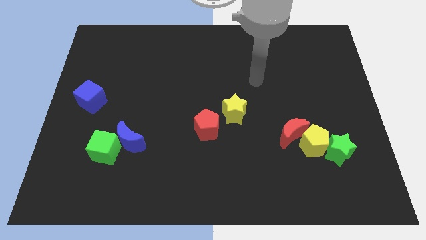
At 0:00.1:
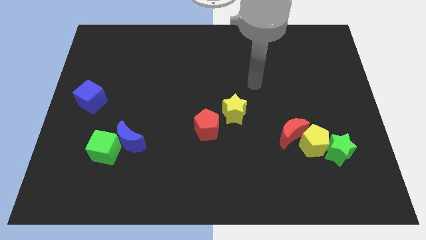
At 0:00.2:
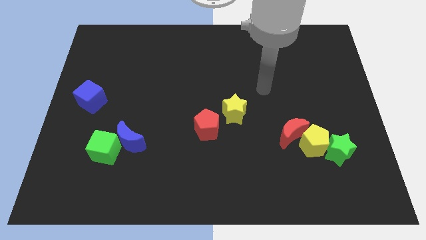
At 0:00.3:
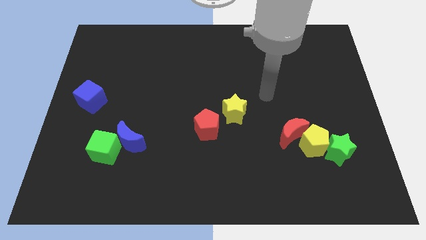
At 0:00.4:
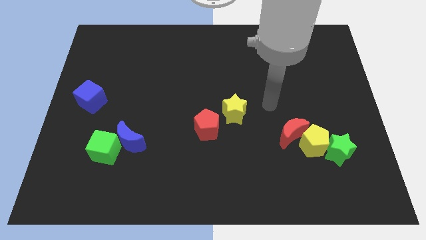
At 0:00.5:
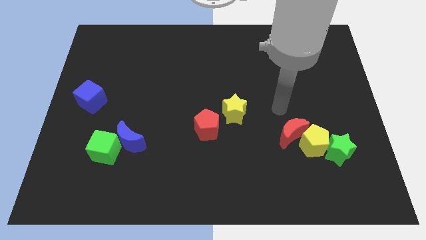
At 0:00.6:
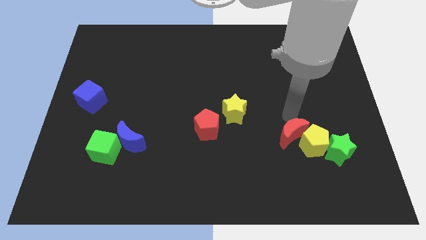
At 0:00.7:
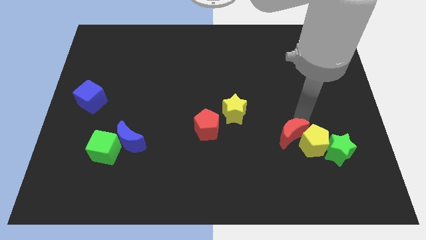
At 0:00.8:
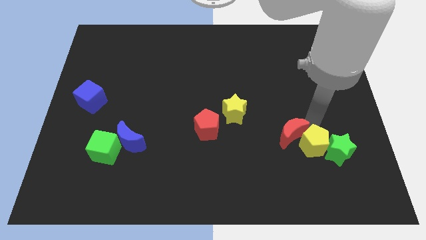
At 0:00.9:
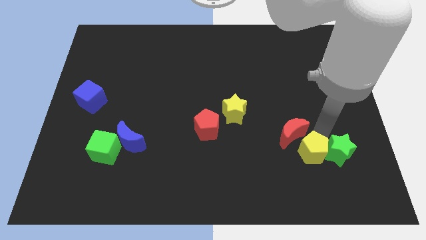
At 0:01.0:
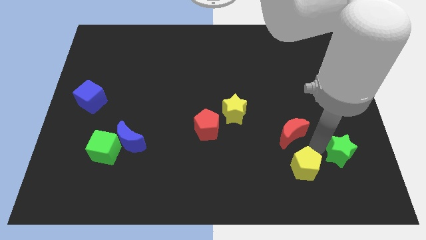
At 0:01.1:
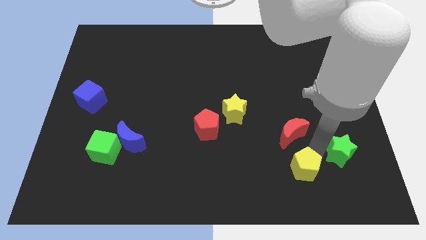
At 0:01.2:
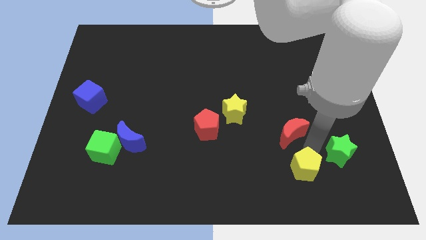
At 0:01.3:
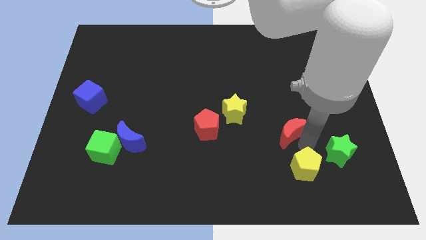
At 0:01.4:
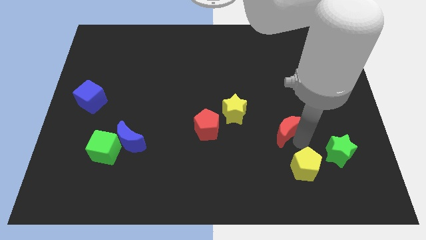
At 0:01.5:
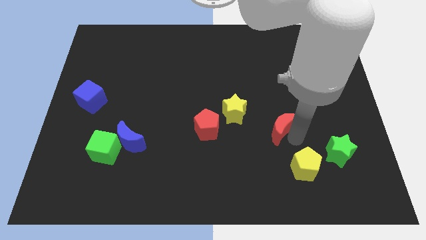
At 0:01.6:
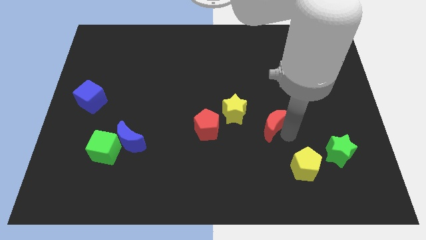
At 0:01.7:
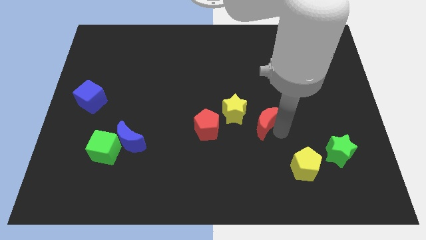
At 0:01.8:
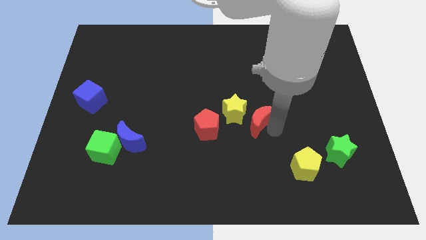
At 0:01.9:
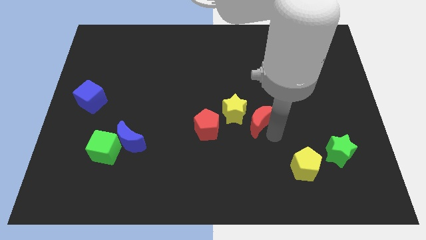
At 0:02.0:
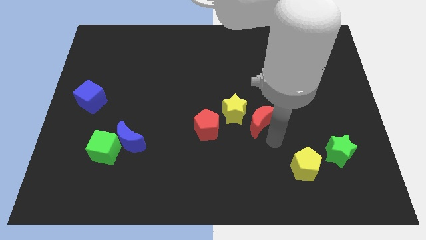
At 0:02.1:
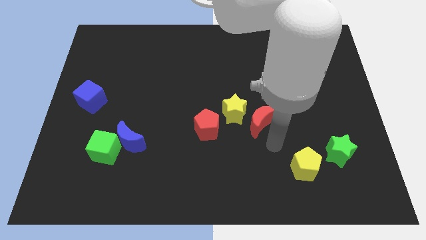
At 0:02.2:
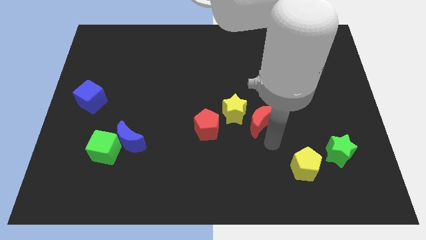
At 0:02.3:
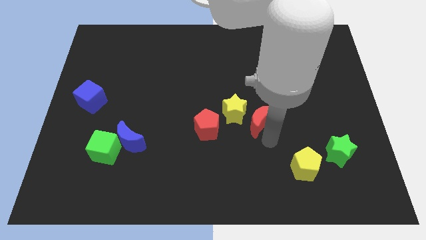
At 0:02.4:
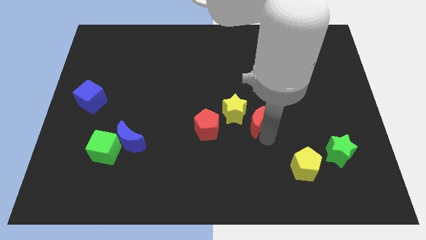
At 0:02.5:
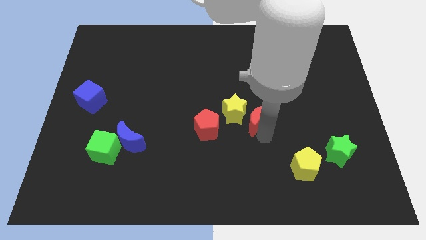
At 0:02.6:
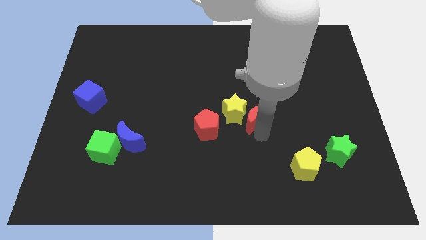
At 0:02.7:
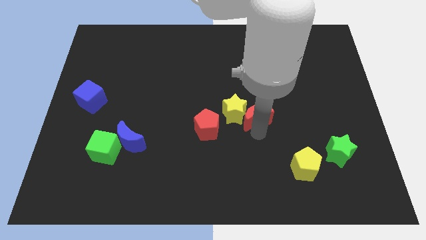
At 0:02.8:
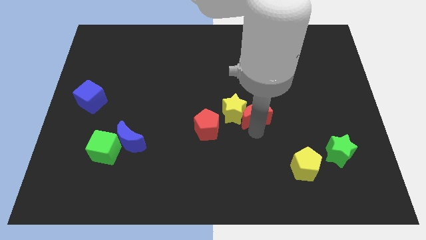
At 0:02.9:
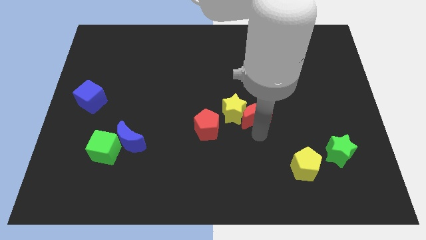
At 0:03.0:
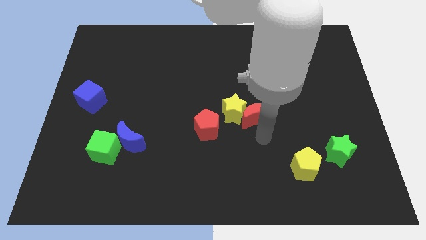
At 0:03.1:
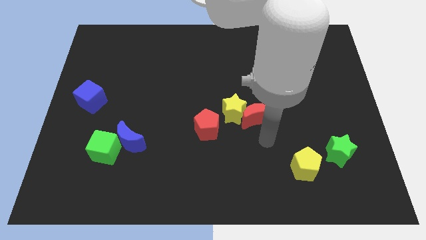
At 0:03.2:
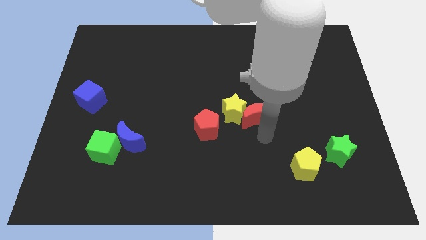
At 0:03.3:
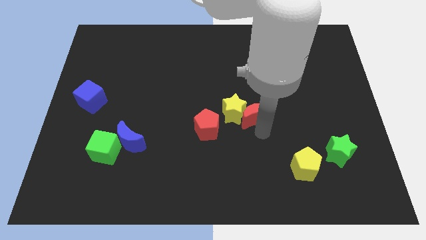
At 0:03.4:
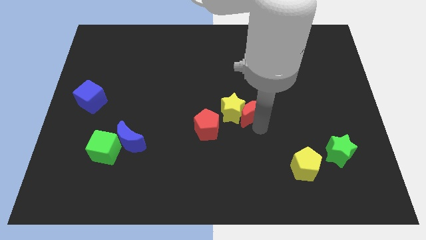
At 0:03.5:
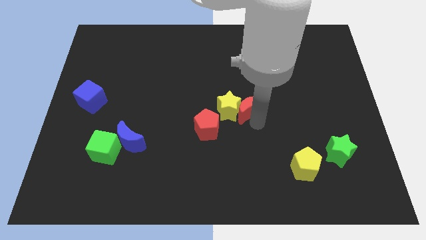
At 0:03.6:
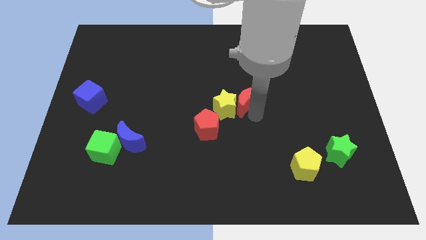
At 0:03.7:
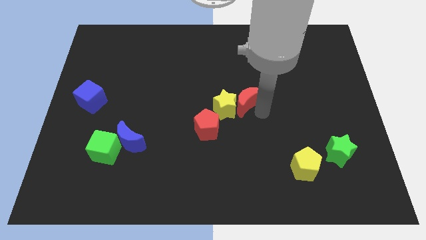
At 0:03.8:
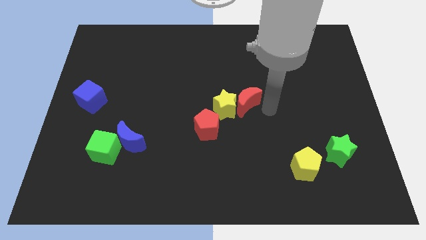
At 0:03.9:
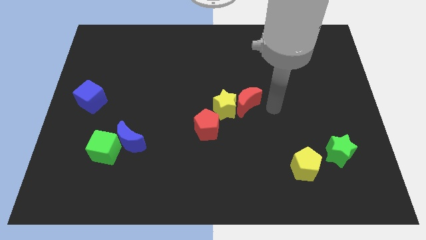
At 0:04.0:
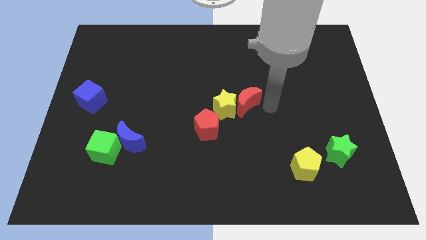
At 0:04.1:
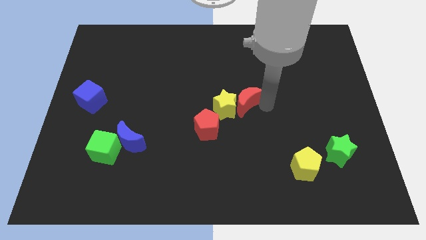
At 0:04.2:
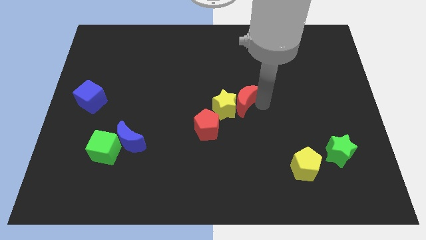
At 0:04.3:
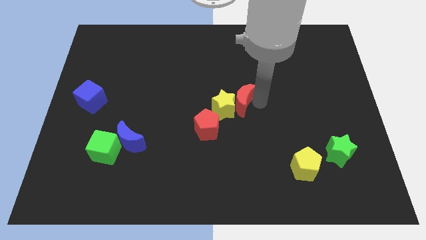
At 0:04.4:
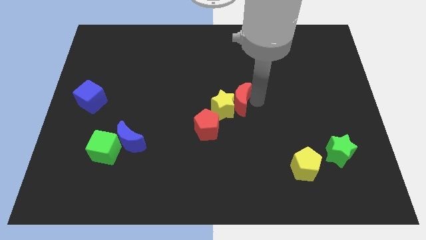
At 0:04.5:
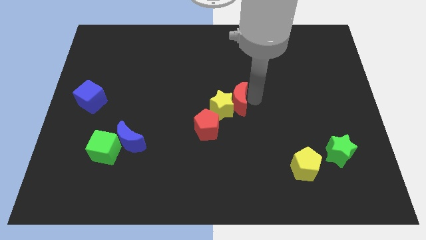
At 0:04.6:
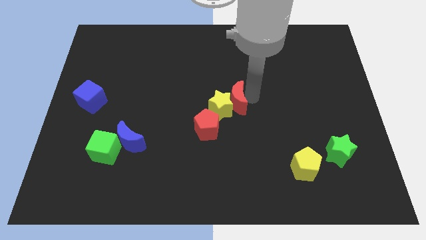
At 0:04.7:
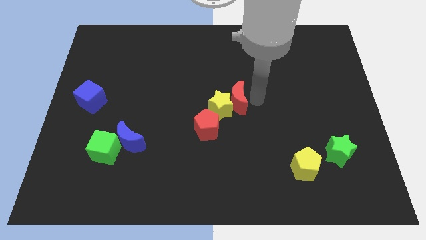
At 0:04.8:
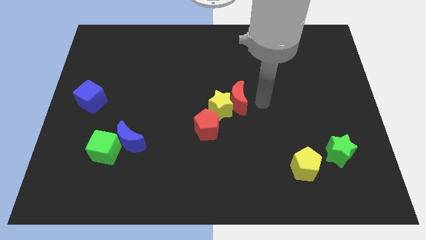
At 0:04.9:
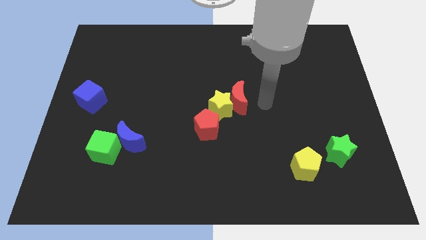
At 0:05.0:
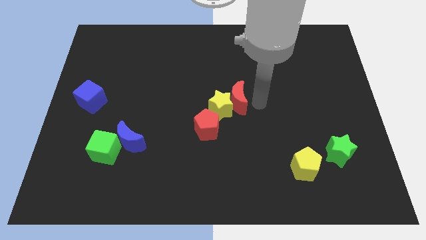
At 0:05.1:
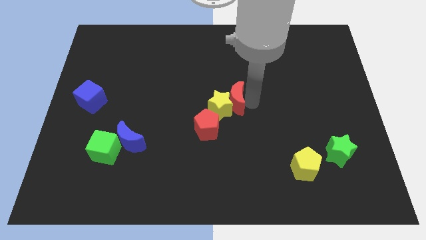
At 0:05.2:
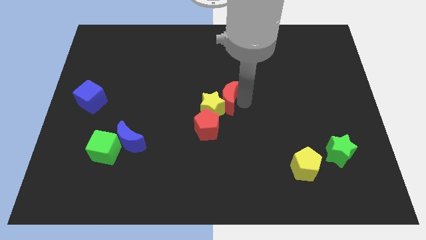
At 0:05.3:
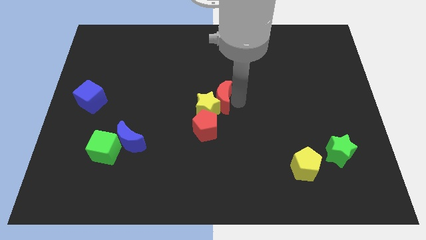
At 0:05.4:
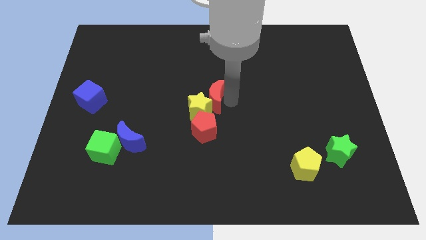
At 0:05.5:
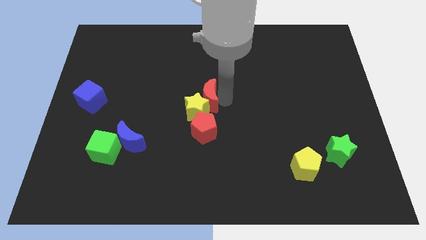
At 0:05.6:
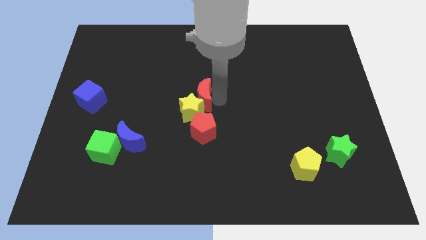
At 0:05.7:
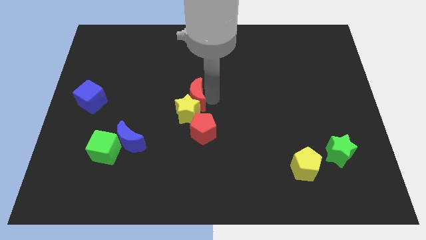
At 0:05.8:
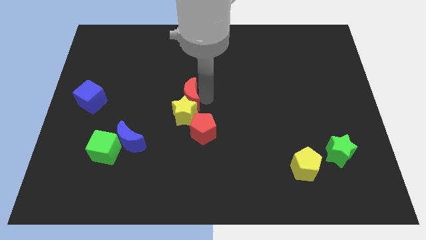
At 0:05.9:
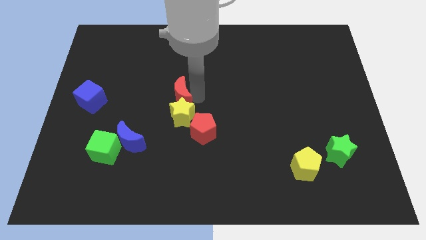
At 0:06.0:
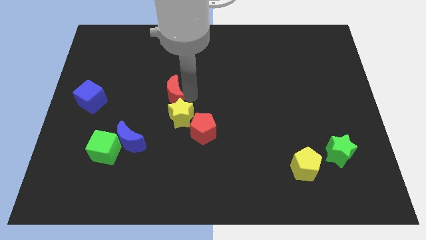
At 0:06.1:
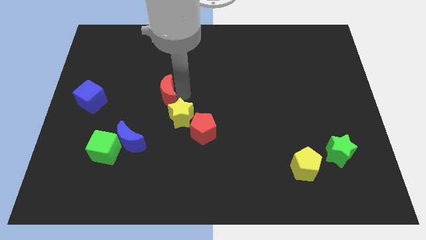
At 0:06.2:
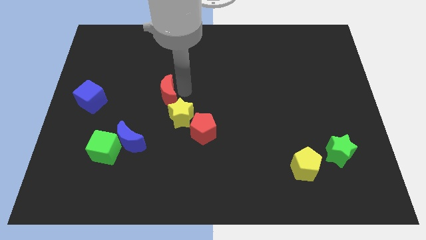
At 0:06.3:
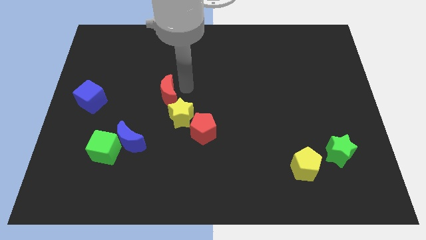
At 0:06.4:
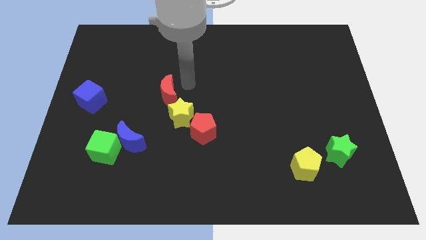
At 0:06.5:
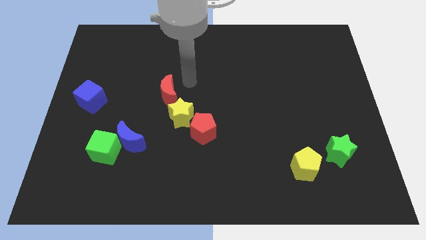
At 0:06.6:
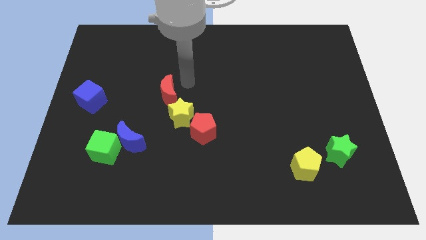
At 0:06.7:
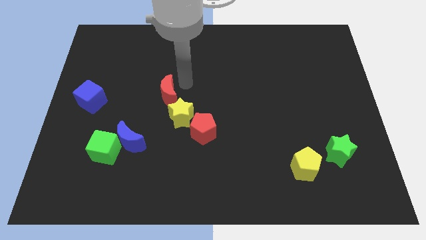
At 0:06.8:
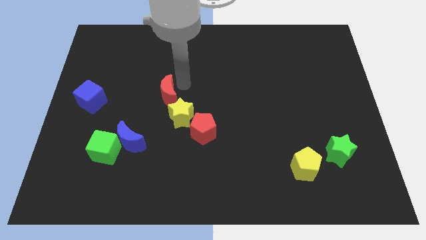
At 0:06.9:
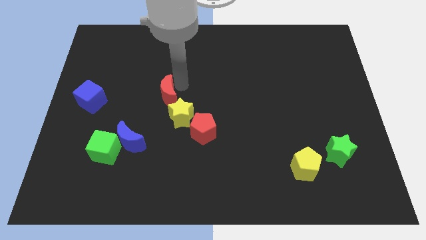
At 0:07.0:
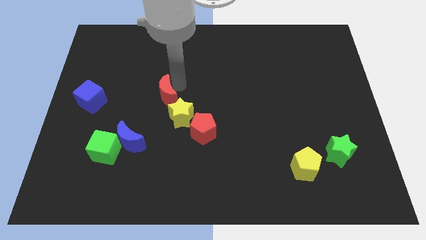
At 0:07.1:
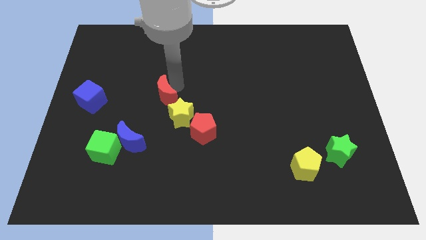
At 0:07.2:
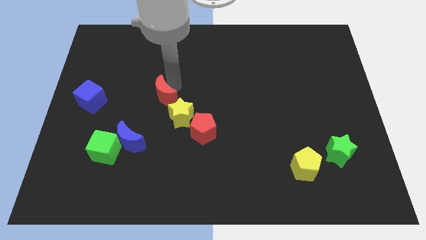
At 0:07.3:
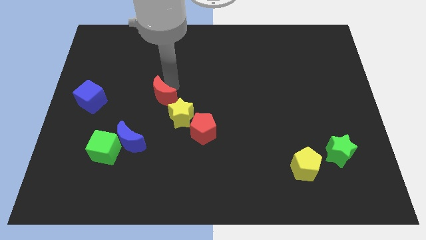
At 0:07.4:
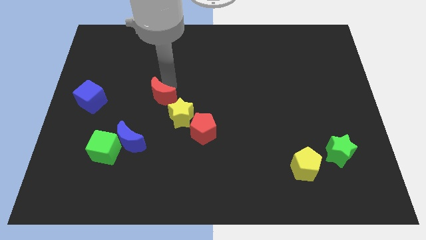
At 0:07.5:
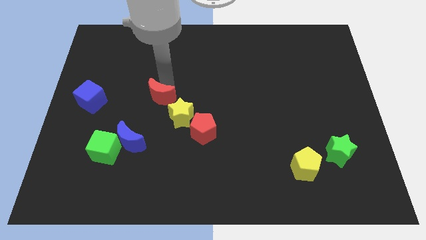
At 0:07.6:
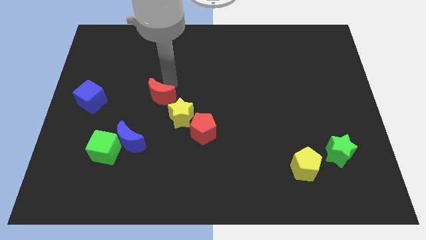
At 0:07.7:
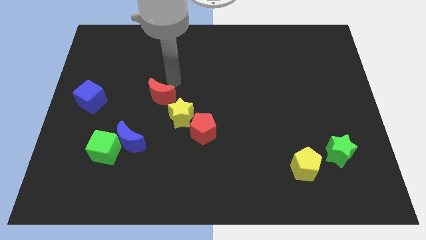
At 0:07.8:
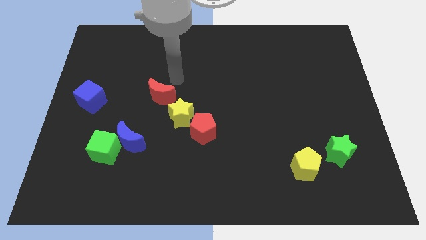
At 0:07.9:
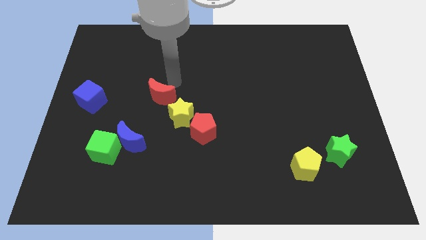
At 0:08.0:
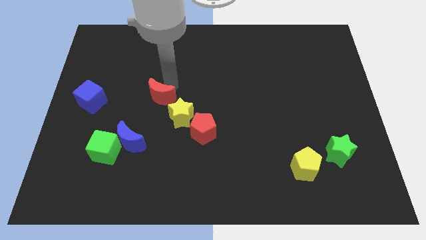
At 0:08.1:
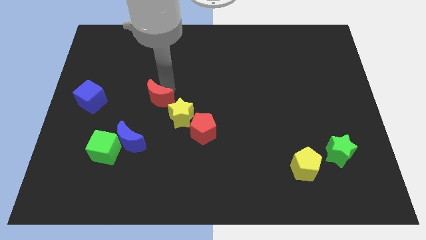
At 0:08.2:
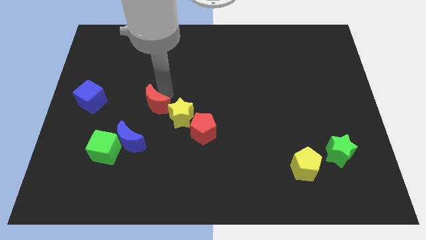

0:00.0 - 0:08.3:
push the red moon to the top of the blue moon
